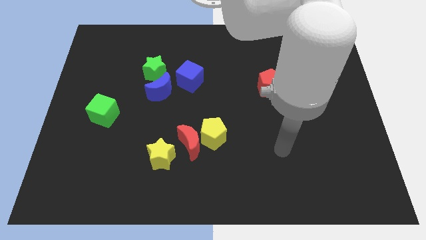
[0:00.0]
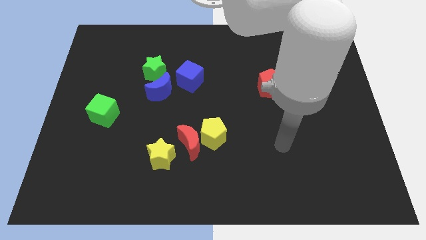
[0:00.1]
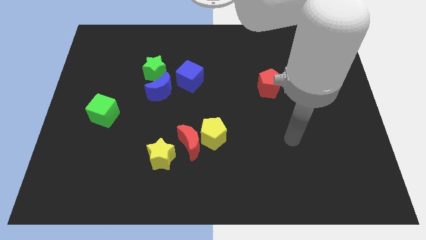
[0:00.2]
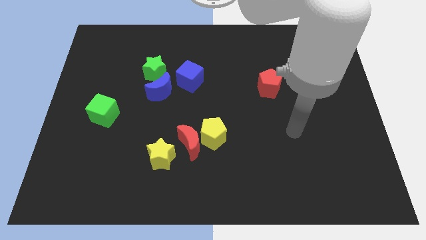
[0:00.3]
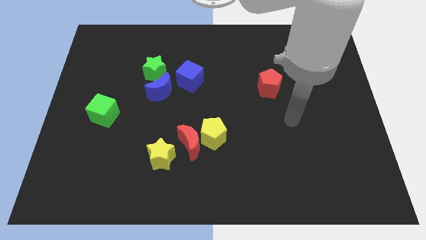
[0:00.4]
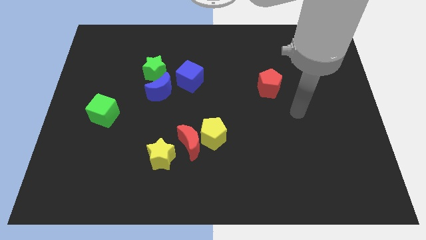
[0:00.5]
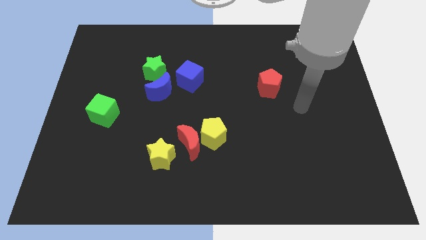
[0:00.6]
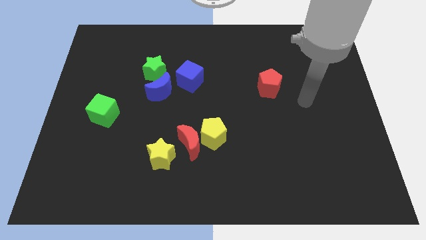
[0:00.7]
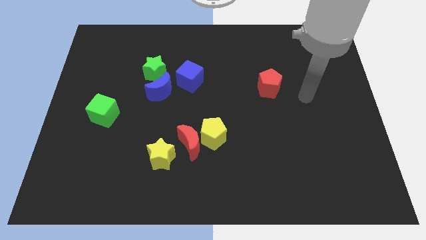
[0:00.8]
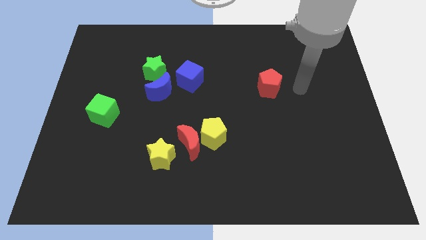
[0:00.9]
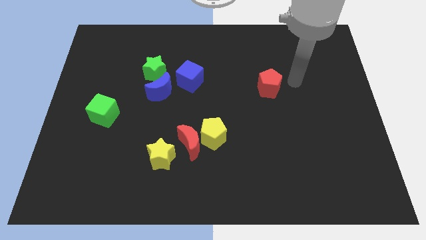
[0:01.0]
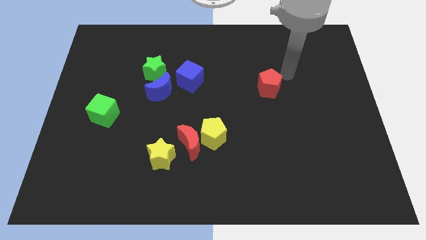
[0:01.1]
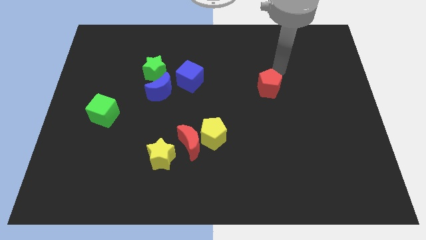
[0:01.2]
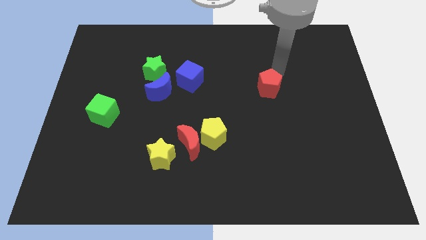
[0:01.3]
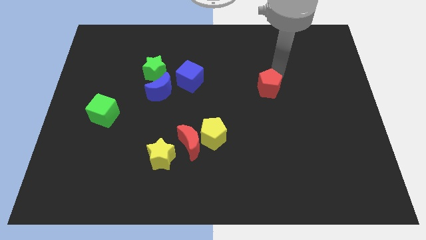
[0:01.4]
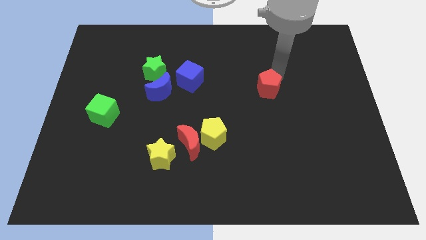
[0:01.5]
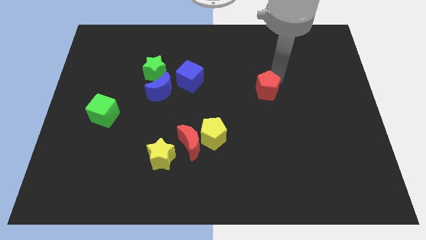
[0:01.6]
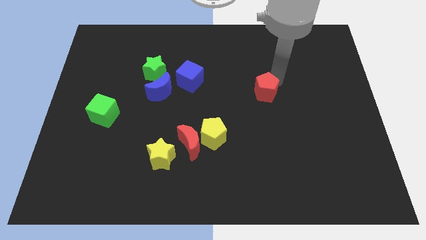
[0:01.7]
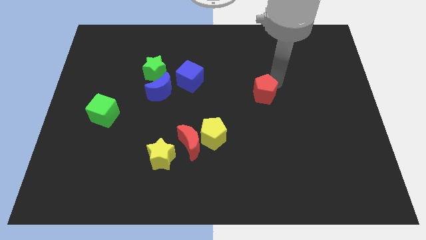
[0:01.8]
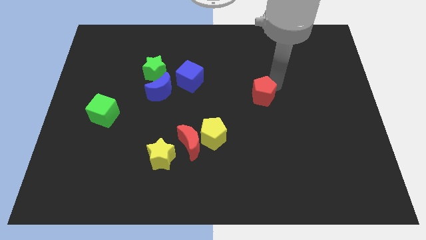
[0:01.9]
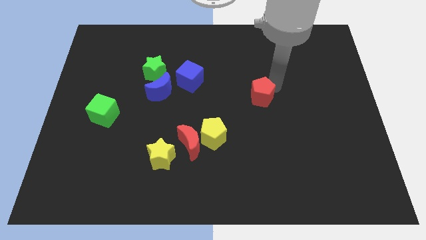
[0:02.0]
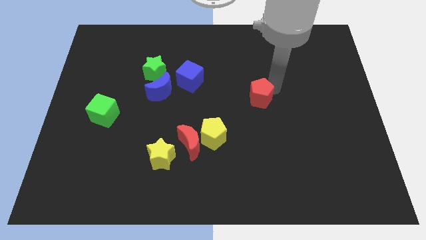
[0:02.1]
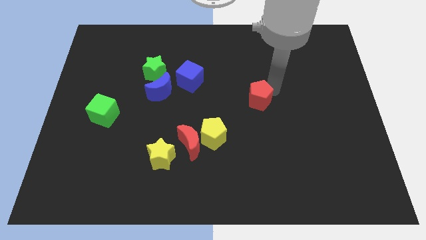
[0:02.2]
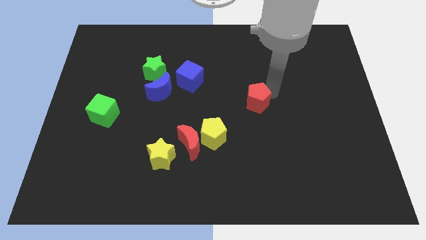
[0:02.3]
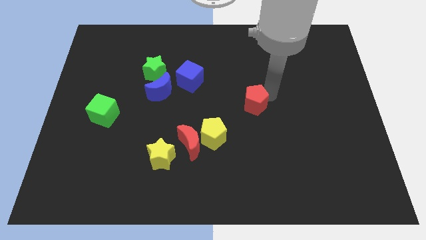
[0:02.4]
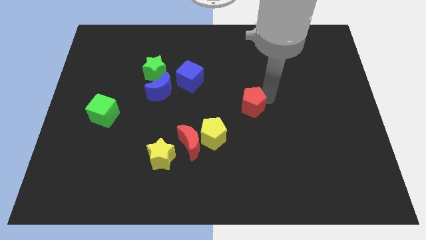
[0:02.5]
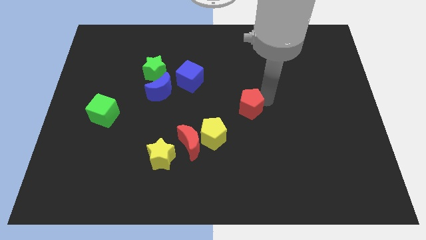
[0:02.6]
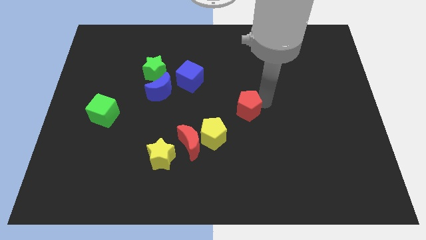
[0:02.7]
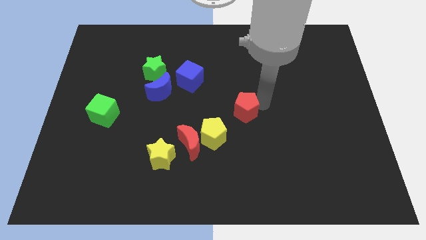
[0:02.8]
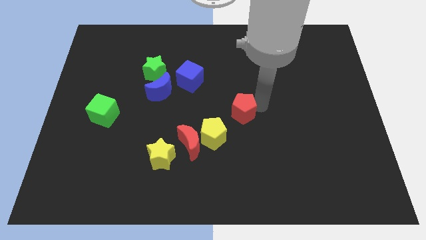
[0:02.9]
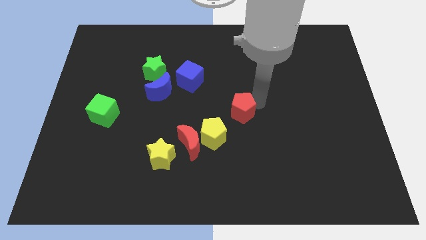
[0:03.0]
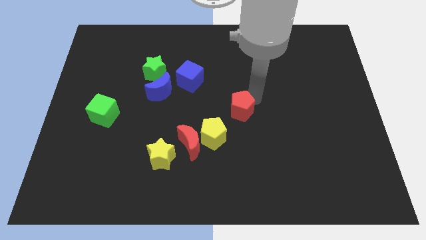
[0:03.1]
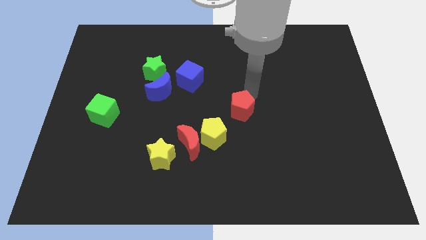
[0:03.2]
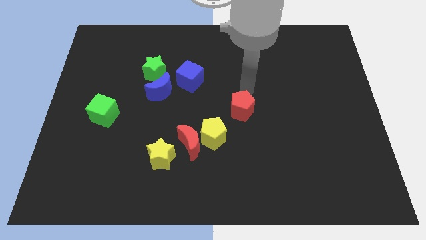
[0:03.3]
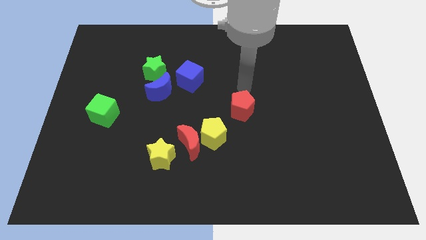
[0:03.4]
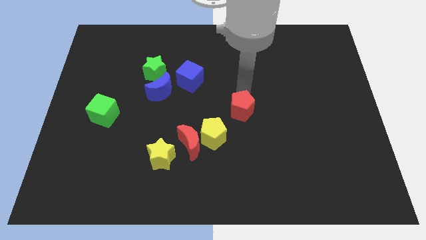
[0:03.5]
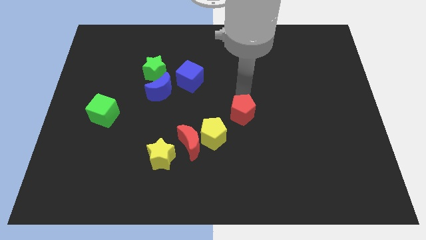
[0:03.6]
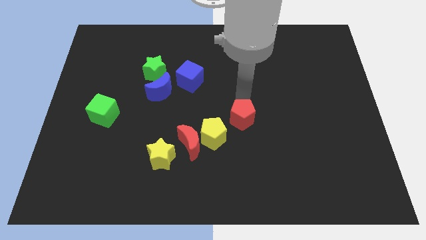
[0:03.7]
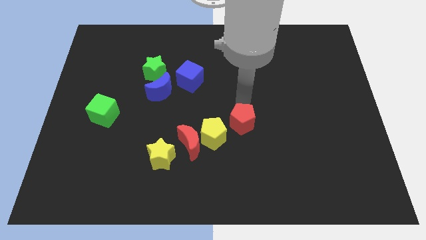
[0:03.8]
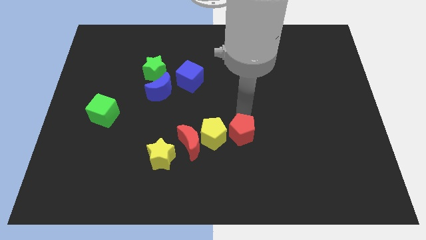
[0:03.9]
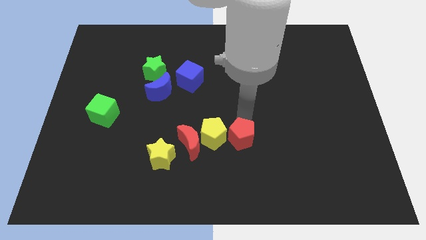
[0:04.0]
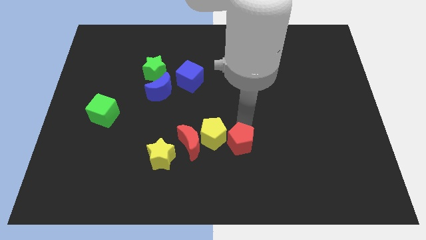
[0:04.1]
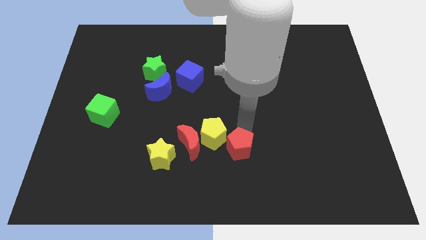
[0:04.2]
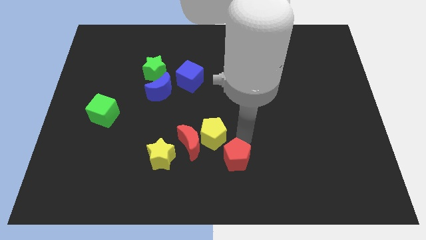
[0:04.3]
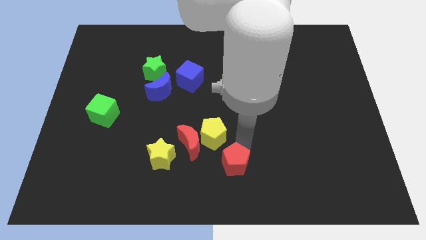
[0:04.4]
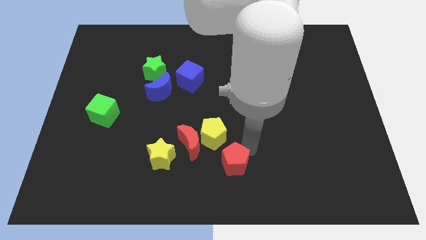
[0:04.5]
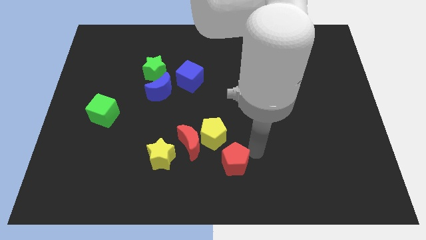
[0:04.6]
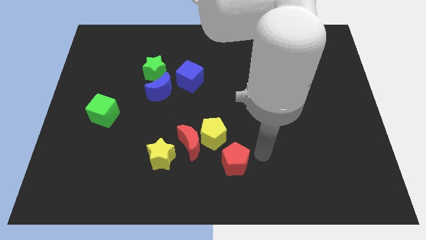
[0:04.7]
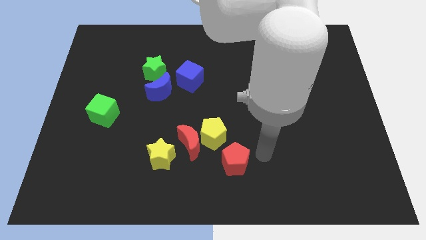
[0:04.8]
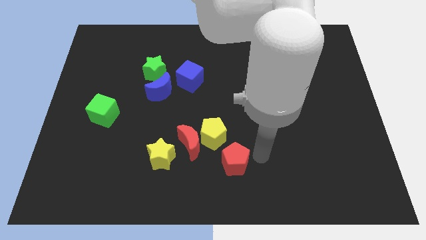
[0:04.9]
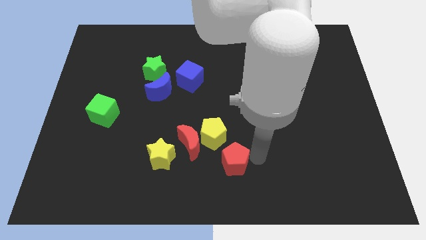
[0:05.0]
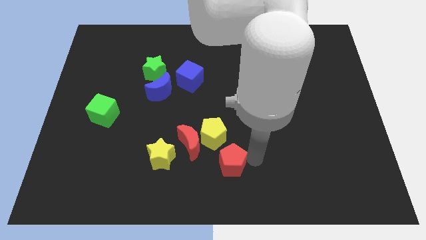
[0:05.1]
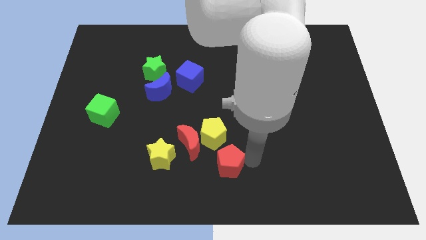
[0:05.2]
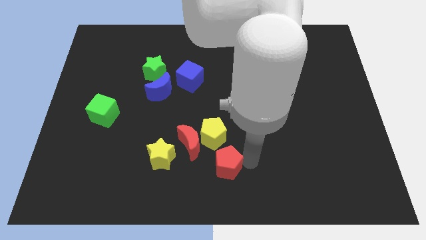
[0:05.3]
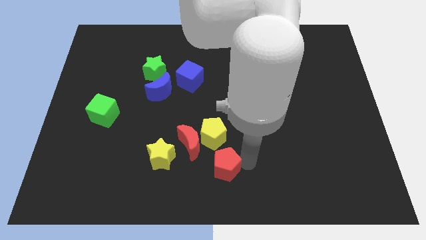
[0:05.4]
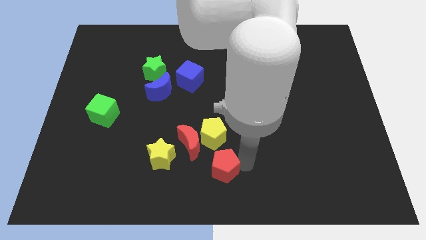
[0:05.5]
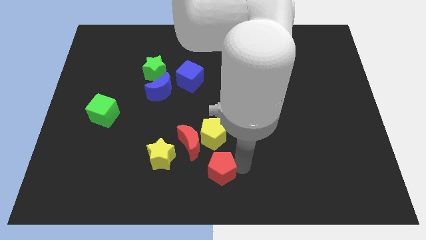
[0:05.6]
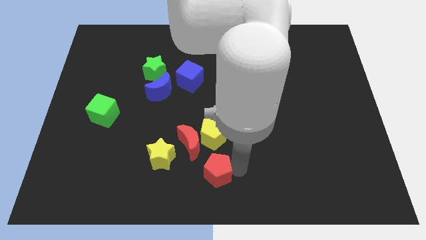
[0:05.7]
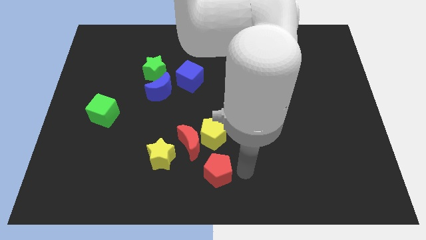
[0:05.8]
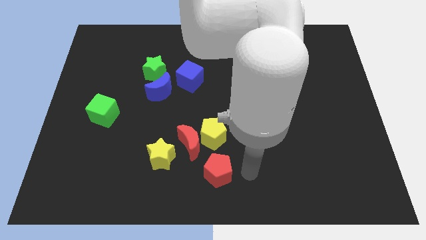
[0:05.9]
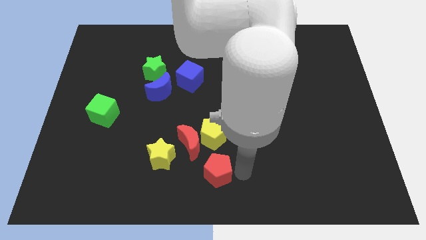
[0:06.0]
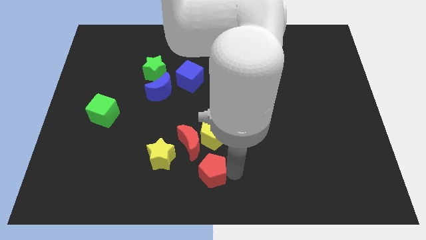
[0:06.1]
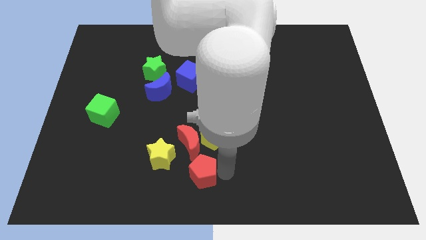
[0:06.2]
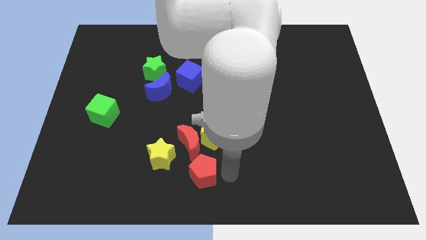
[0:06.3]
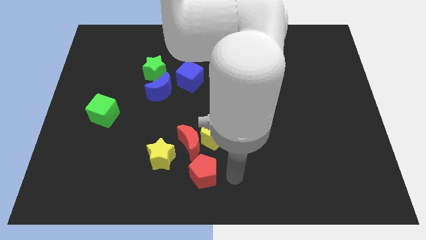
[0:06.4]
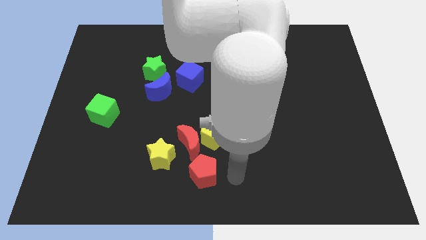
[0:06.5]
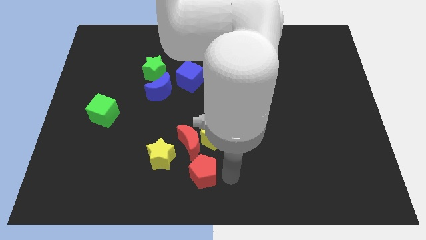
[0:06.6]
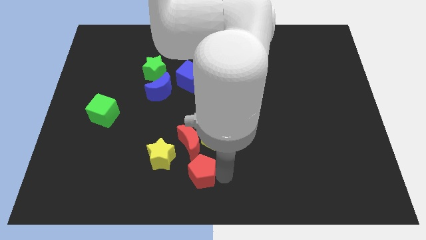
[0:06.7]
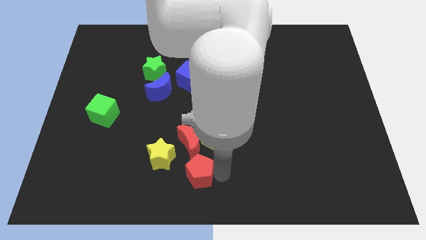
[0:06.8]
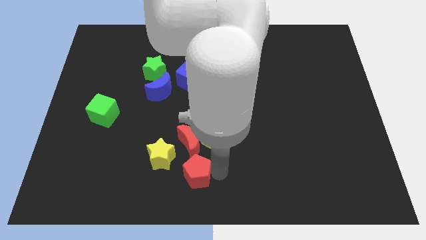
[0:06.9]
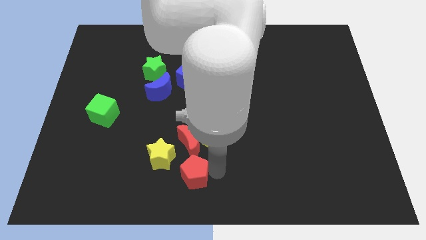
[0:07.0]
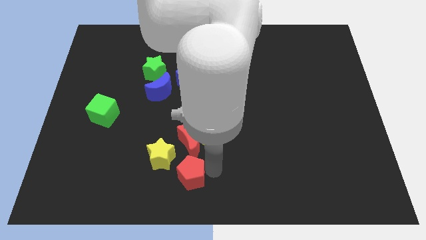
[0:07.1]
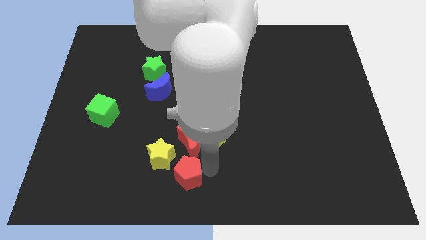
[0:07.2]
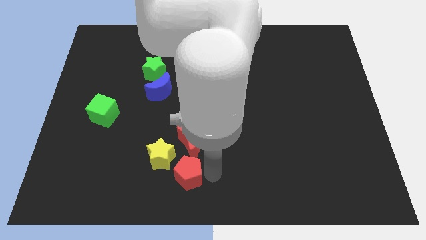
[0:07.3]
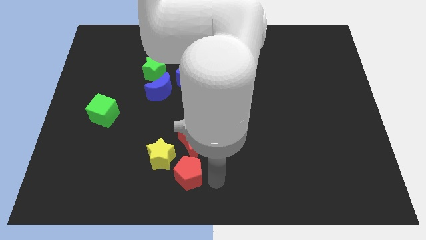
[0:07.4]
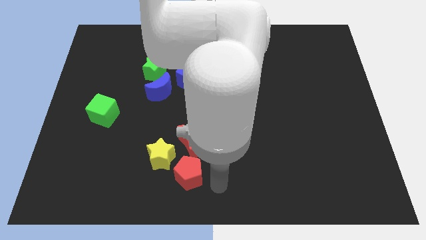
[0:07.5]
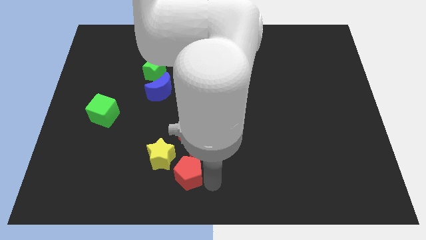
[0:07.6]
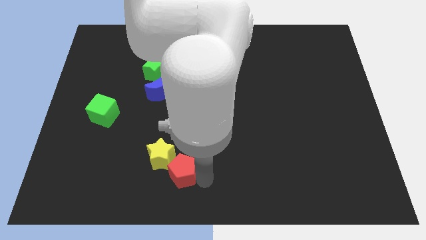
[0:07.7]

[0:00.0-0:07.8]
move the red pentagon to the bottom left side of the red moon
